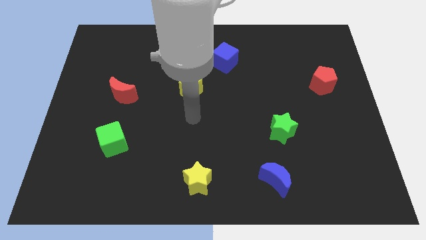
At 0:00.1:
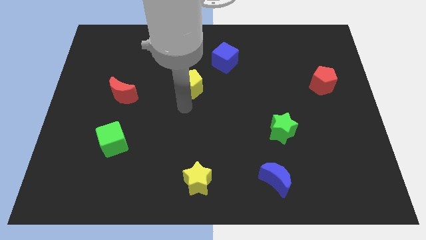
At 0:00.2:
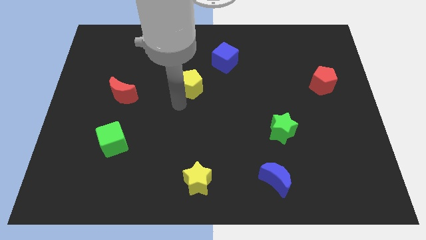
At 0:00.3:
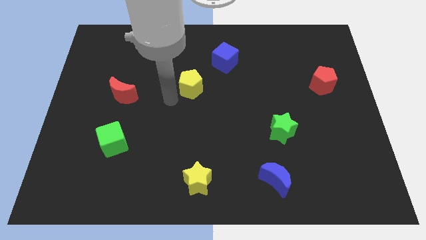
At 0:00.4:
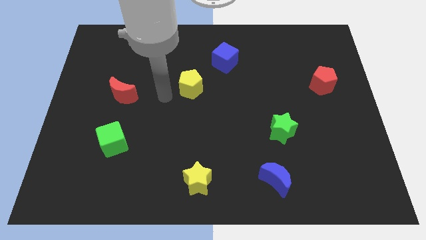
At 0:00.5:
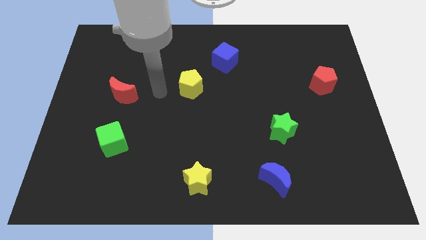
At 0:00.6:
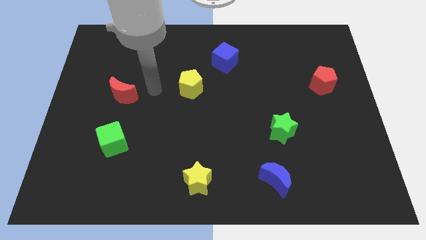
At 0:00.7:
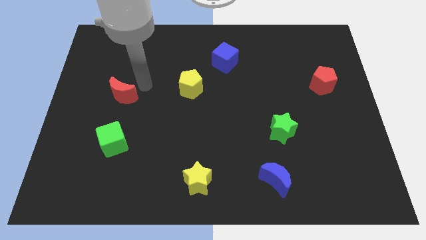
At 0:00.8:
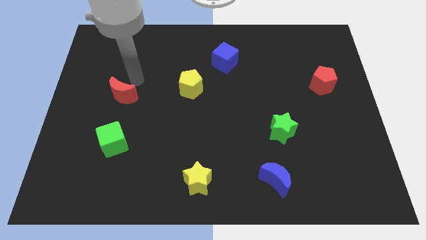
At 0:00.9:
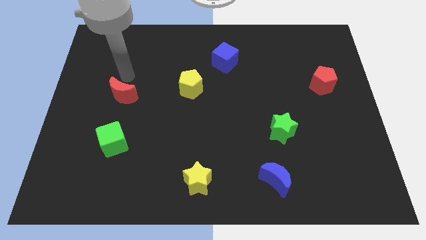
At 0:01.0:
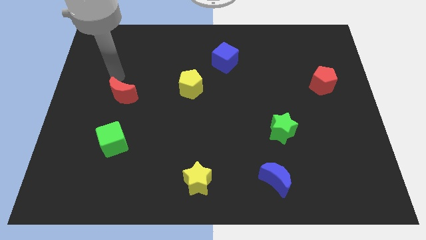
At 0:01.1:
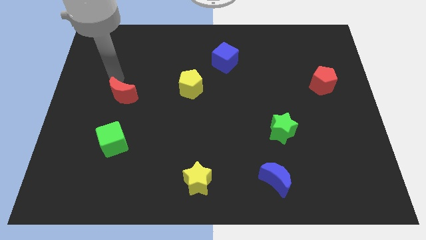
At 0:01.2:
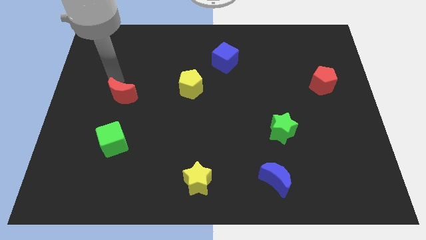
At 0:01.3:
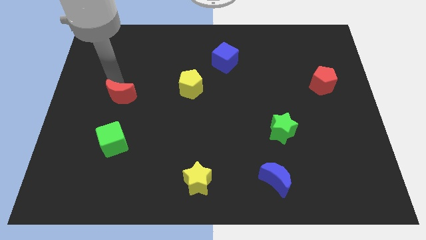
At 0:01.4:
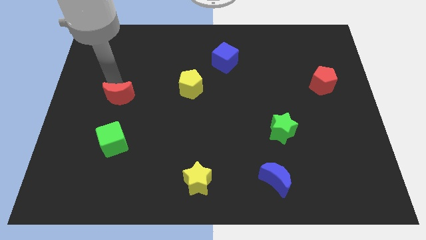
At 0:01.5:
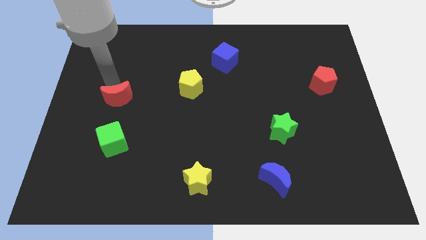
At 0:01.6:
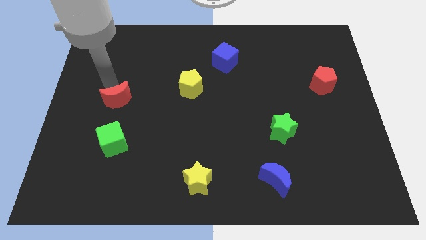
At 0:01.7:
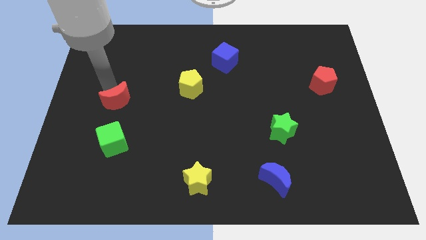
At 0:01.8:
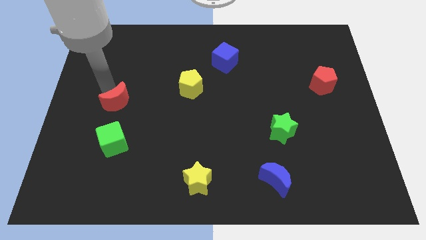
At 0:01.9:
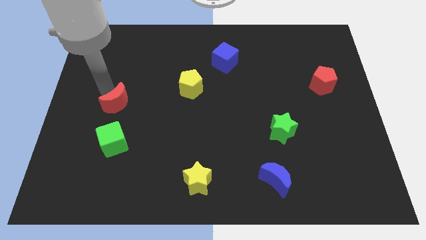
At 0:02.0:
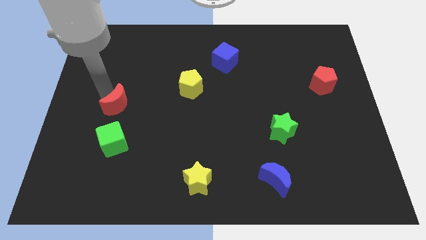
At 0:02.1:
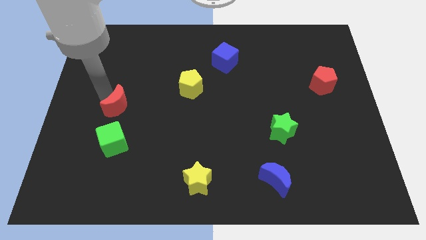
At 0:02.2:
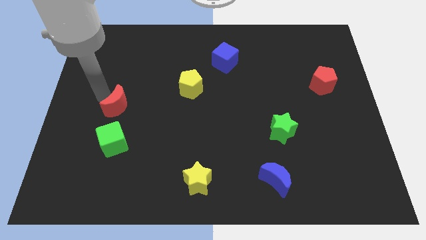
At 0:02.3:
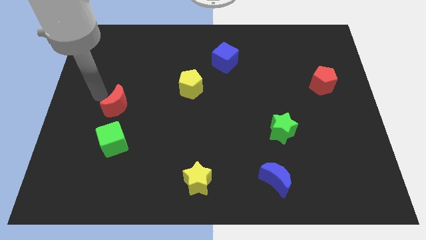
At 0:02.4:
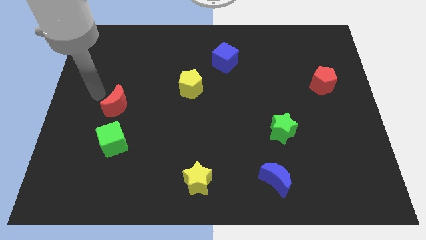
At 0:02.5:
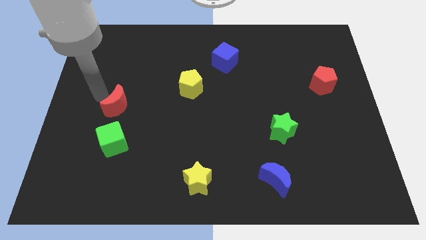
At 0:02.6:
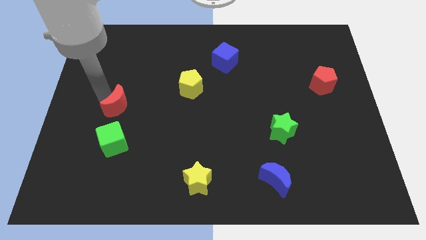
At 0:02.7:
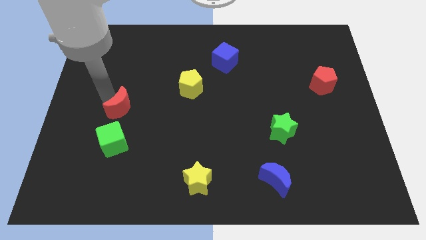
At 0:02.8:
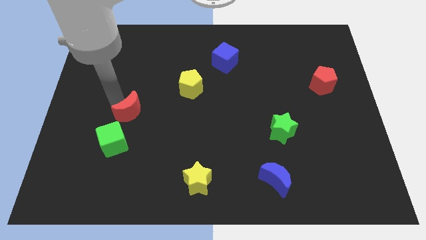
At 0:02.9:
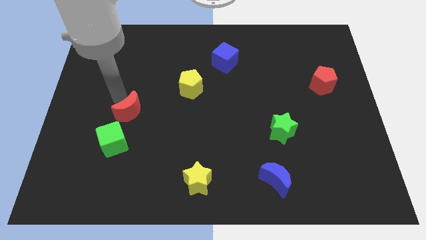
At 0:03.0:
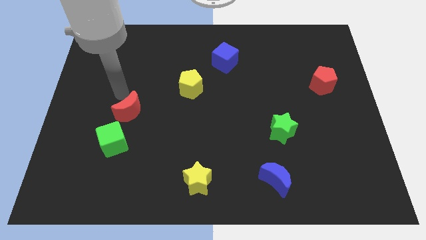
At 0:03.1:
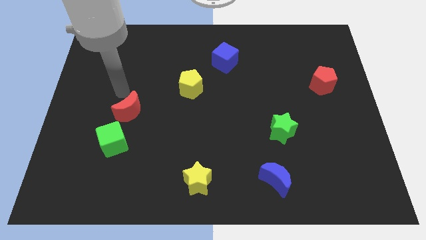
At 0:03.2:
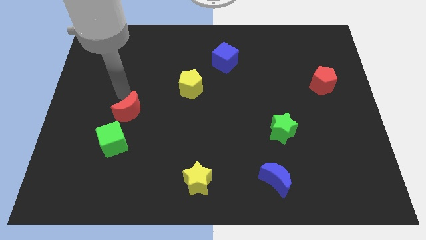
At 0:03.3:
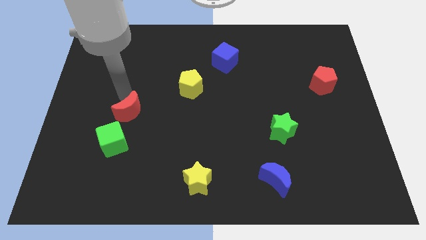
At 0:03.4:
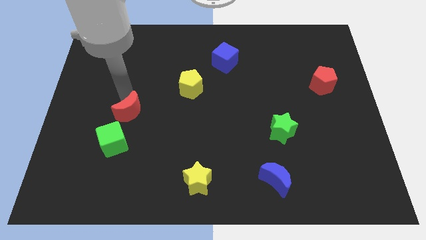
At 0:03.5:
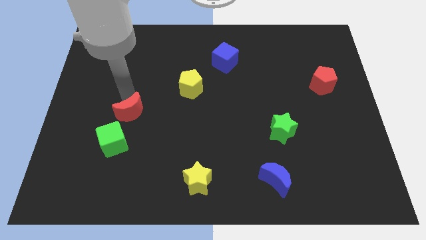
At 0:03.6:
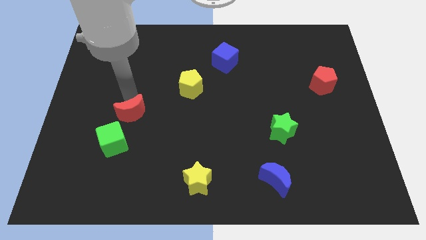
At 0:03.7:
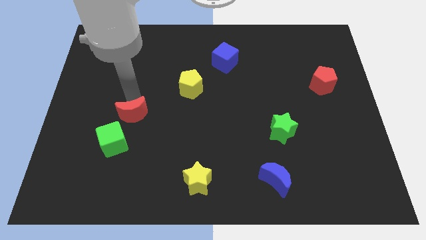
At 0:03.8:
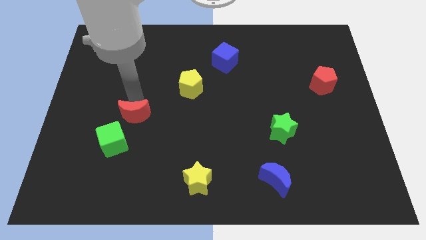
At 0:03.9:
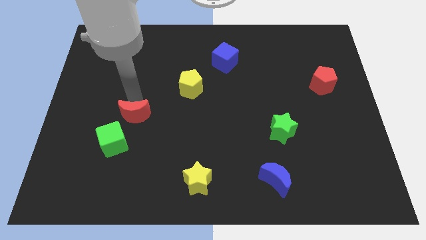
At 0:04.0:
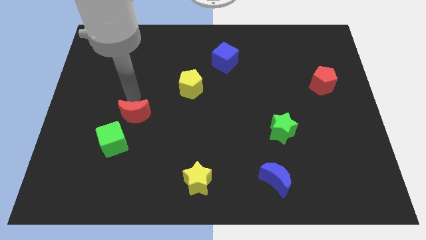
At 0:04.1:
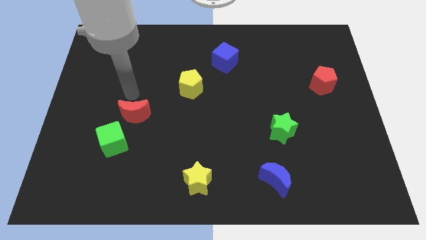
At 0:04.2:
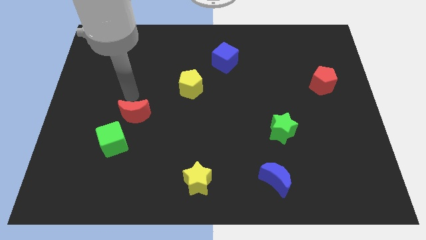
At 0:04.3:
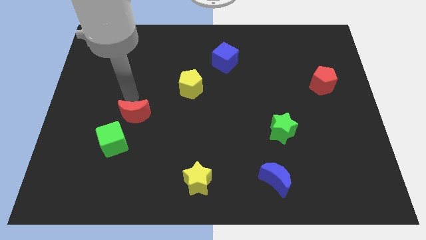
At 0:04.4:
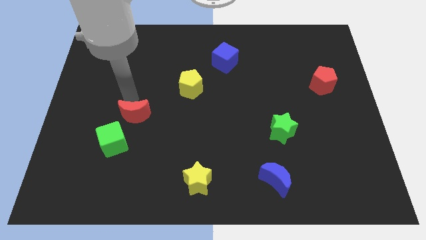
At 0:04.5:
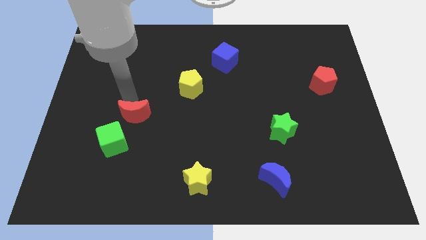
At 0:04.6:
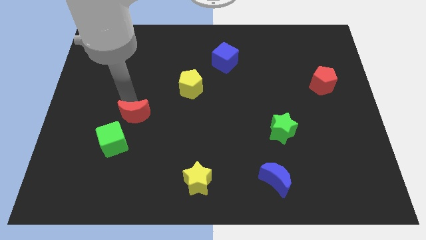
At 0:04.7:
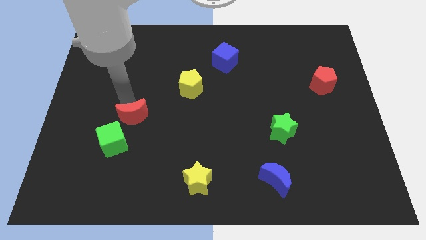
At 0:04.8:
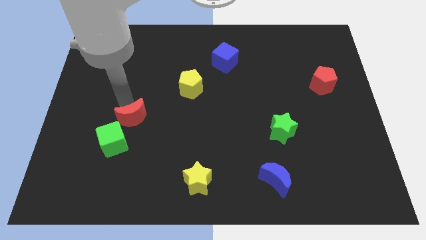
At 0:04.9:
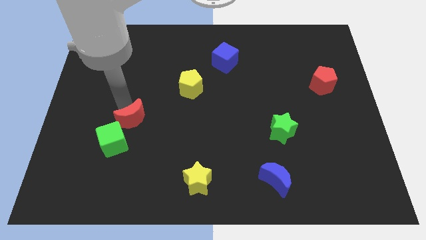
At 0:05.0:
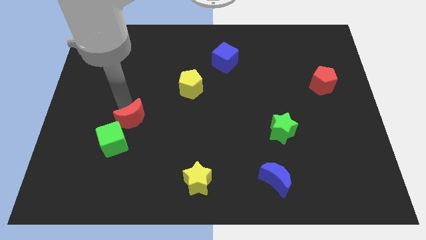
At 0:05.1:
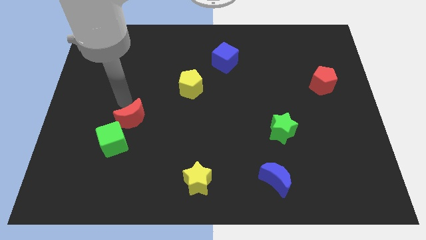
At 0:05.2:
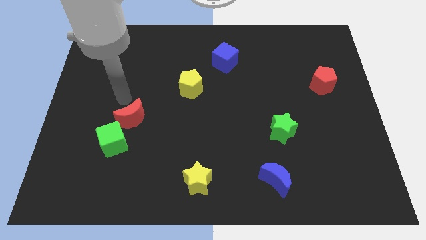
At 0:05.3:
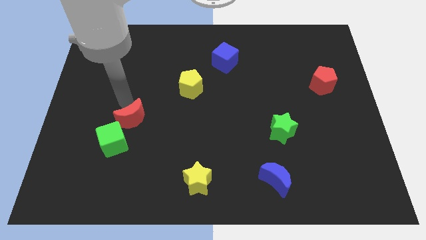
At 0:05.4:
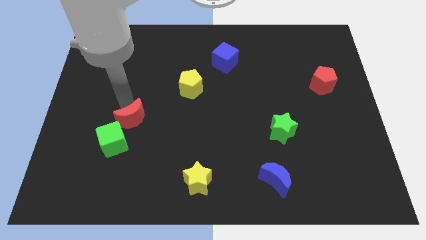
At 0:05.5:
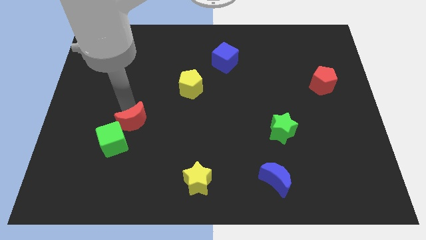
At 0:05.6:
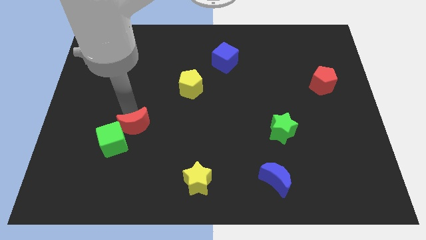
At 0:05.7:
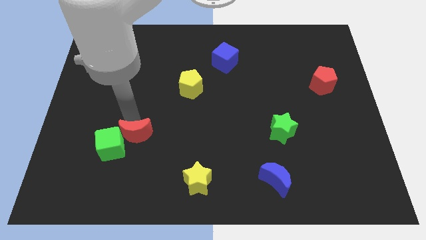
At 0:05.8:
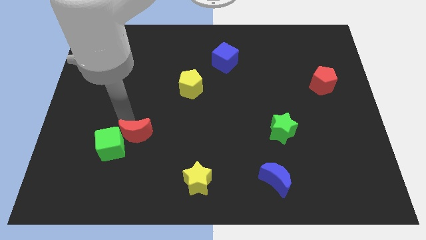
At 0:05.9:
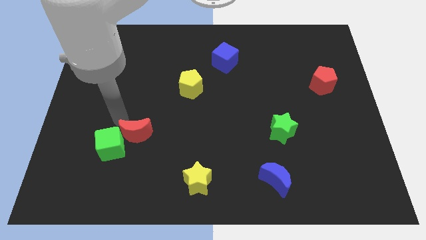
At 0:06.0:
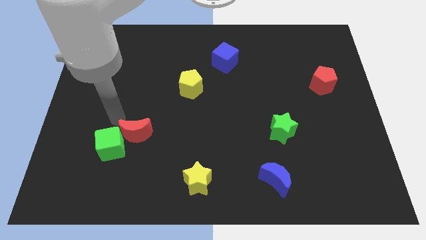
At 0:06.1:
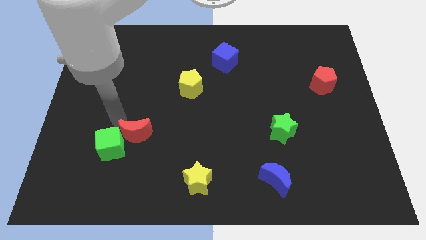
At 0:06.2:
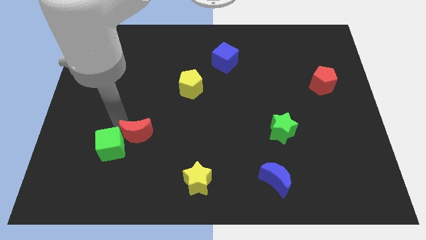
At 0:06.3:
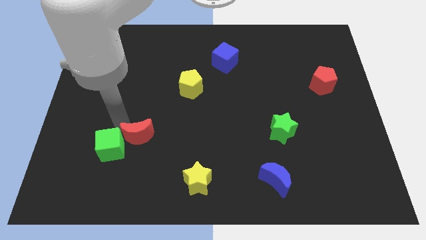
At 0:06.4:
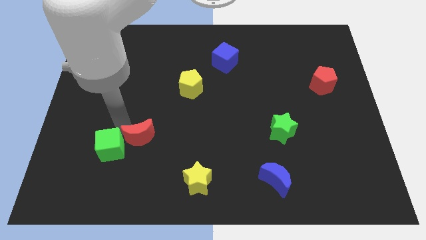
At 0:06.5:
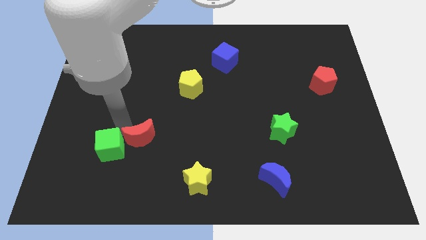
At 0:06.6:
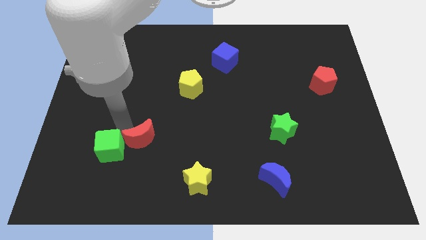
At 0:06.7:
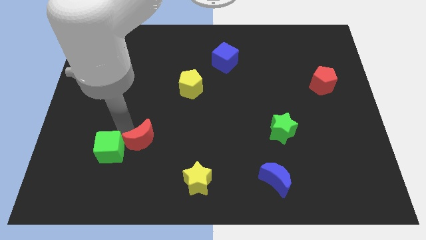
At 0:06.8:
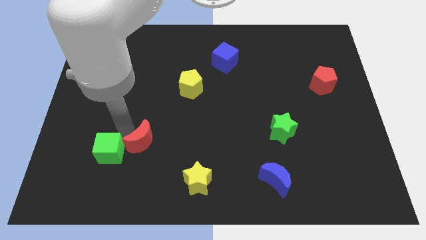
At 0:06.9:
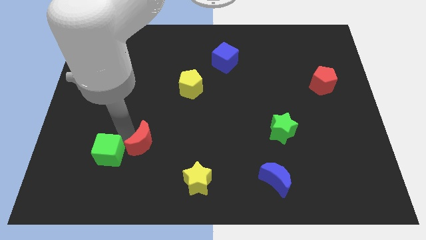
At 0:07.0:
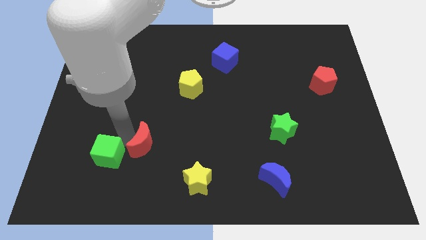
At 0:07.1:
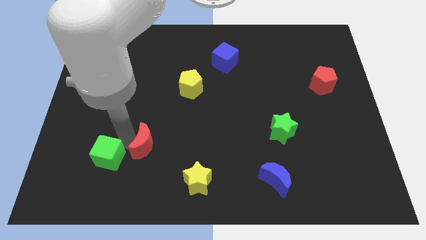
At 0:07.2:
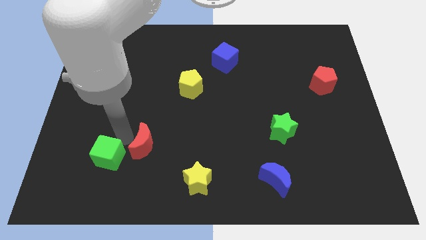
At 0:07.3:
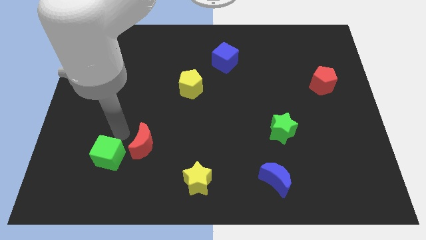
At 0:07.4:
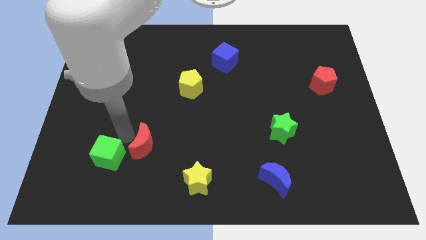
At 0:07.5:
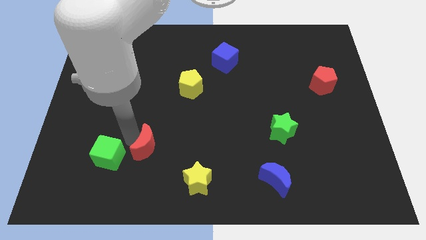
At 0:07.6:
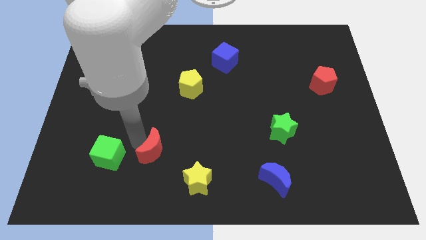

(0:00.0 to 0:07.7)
push the red moon to the top left of the yellow star

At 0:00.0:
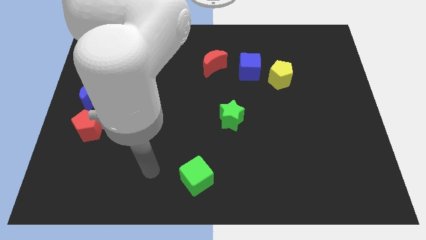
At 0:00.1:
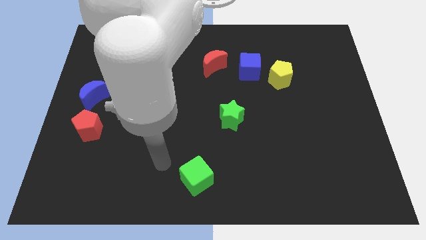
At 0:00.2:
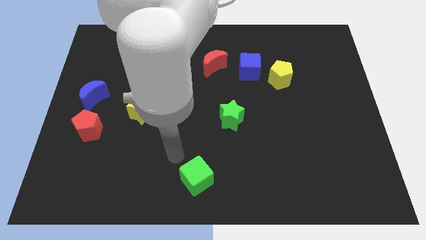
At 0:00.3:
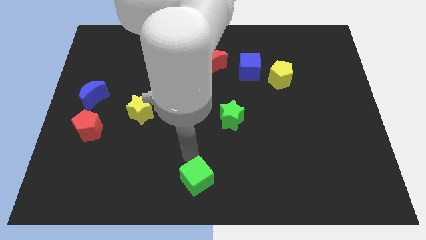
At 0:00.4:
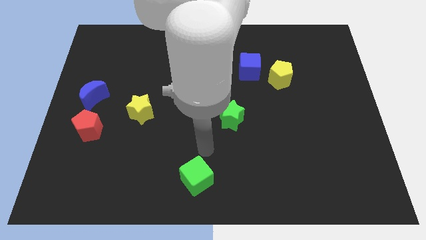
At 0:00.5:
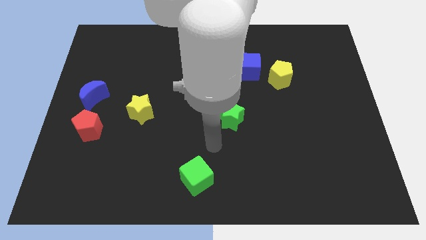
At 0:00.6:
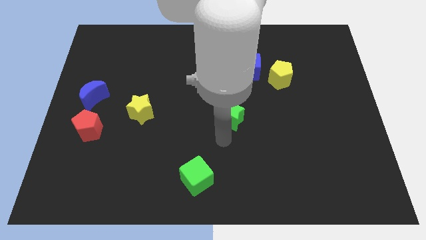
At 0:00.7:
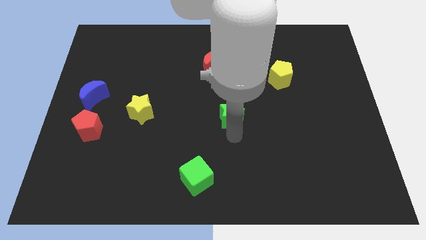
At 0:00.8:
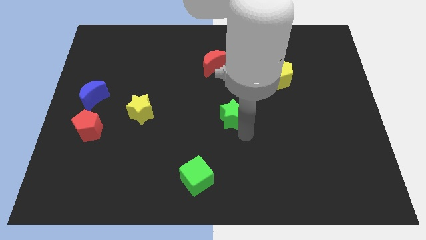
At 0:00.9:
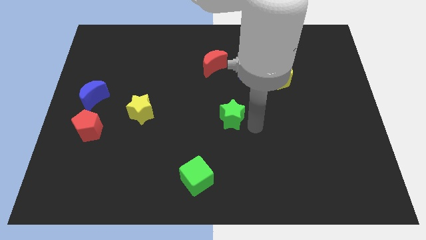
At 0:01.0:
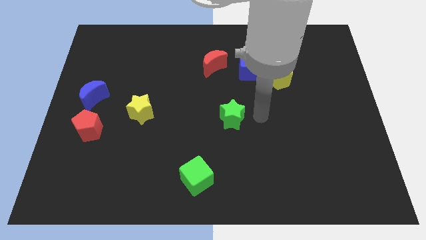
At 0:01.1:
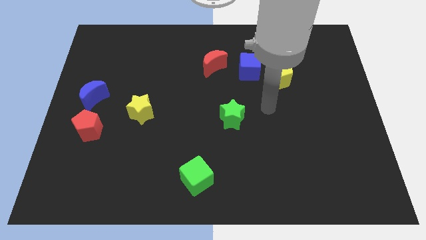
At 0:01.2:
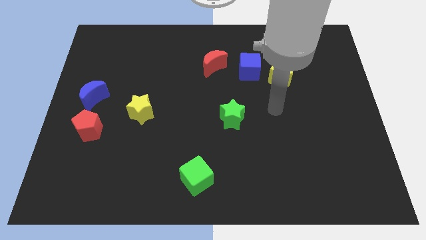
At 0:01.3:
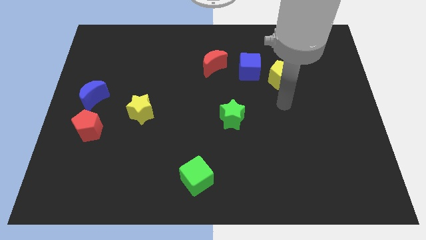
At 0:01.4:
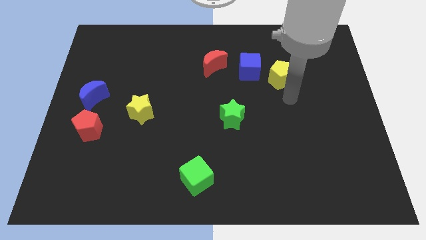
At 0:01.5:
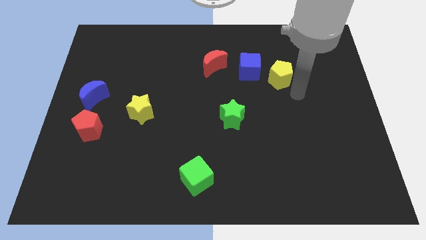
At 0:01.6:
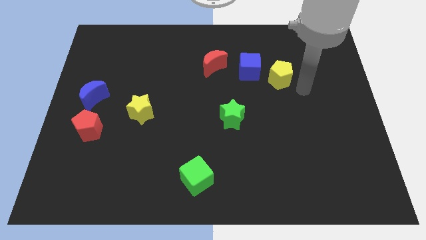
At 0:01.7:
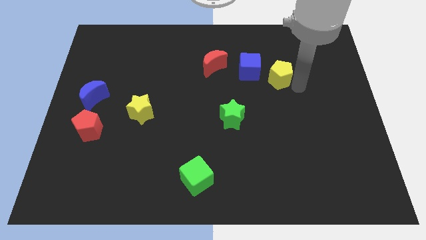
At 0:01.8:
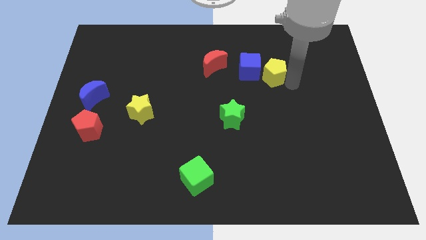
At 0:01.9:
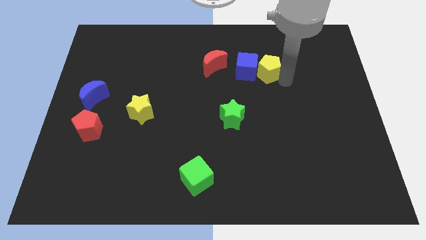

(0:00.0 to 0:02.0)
put the yellow pentagon right of the red moon
